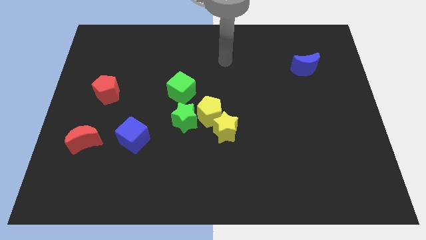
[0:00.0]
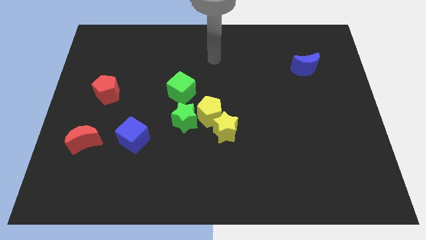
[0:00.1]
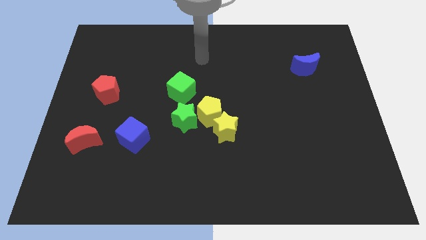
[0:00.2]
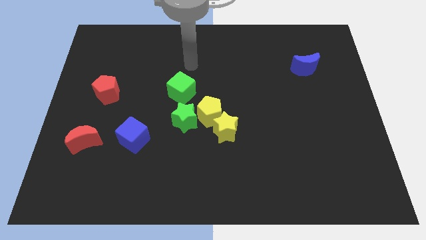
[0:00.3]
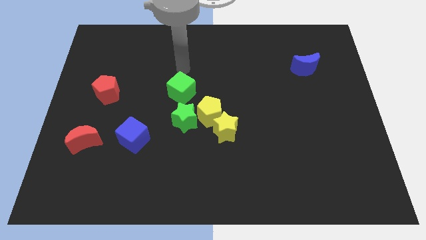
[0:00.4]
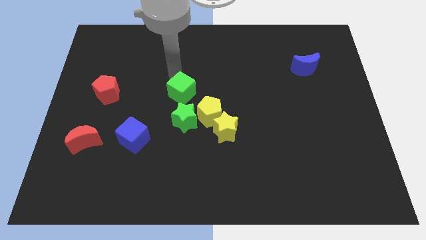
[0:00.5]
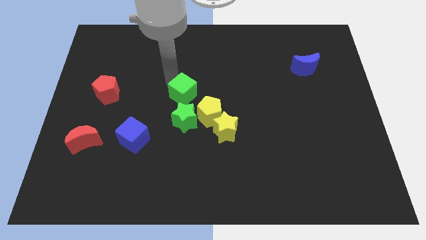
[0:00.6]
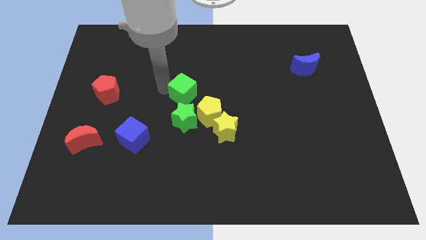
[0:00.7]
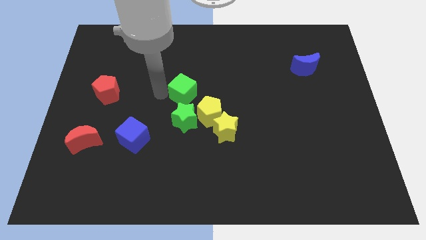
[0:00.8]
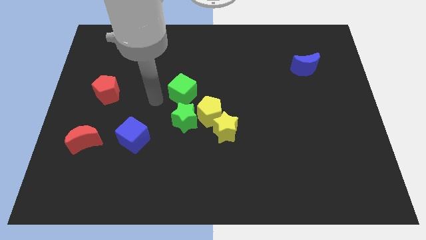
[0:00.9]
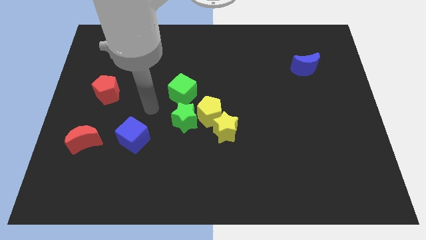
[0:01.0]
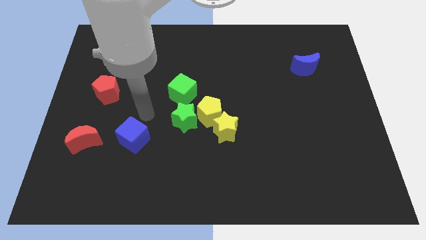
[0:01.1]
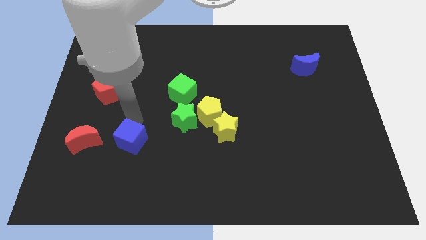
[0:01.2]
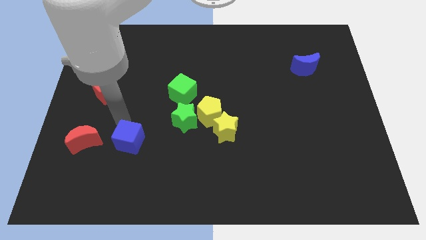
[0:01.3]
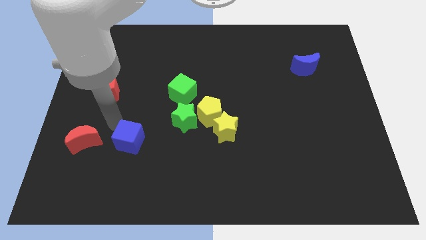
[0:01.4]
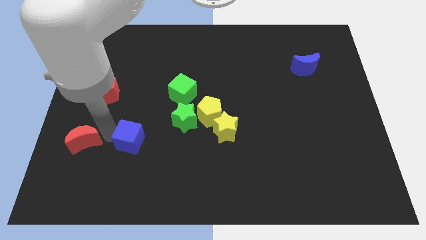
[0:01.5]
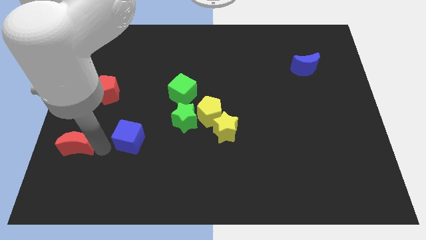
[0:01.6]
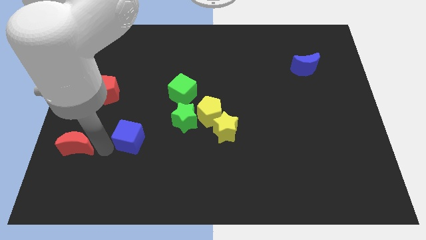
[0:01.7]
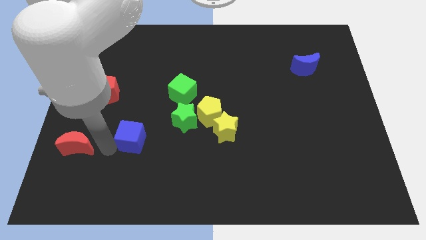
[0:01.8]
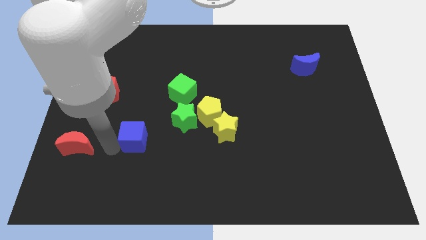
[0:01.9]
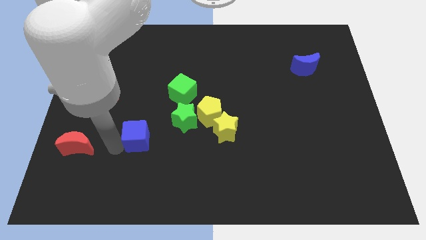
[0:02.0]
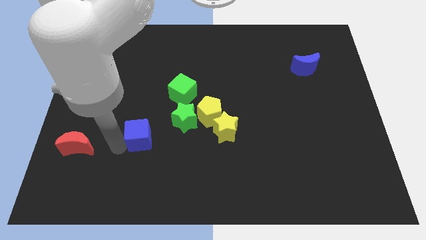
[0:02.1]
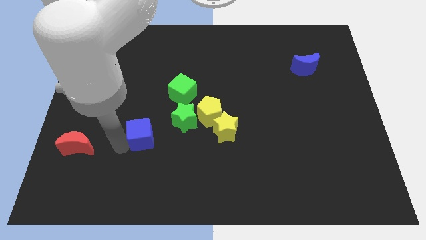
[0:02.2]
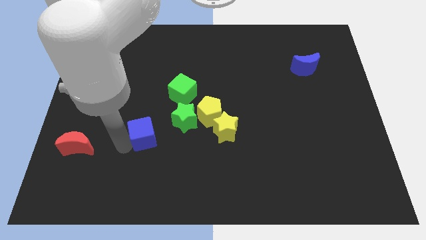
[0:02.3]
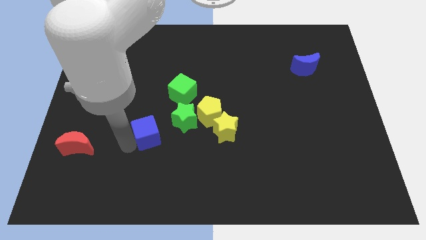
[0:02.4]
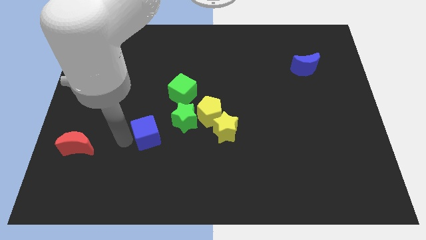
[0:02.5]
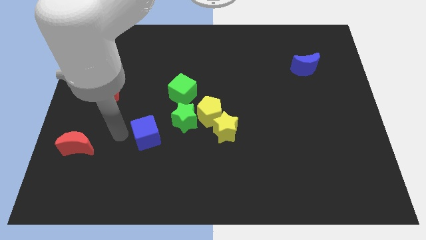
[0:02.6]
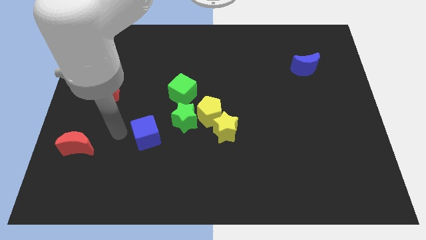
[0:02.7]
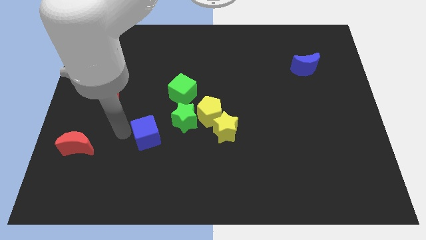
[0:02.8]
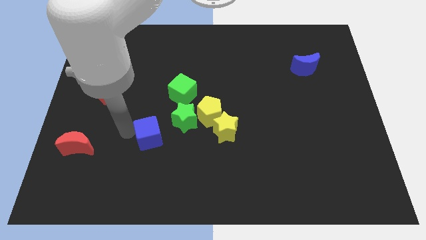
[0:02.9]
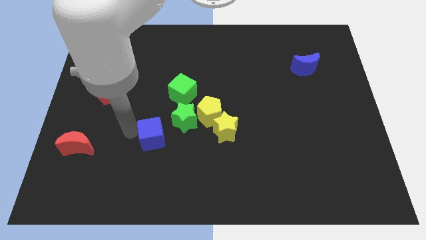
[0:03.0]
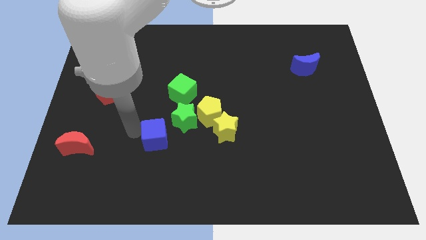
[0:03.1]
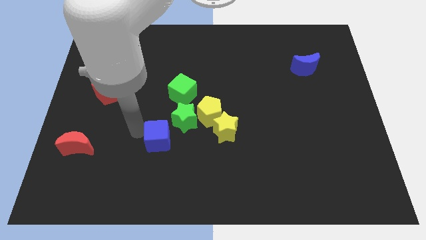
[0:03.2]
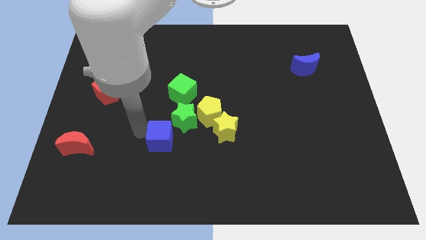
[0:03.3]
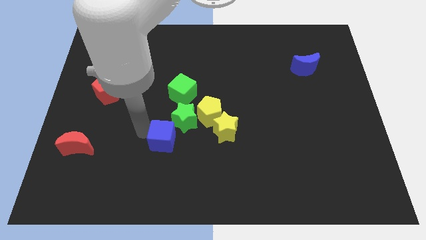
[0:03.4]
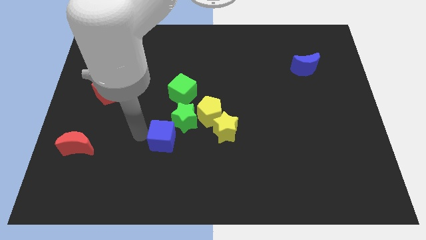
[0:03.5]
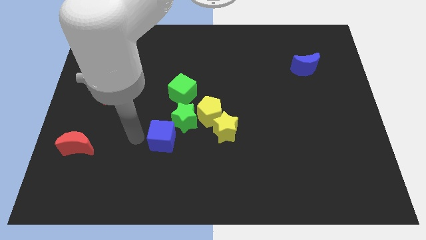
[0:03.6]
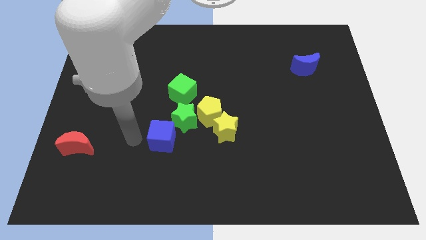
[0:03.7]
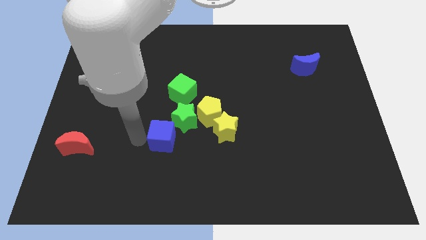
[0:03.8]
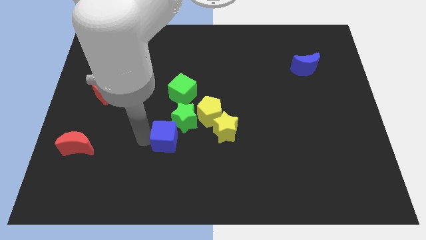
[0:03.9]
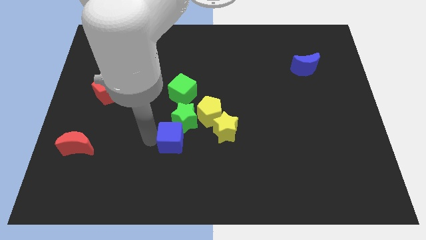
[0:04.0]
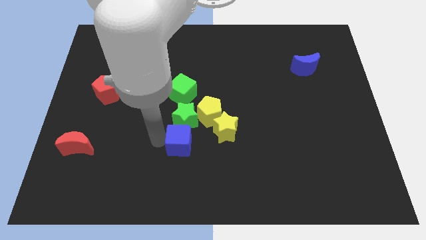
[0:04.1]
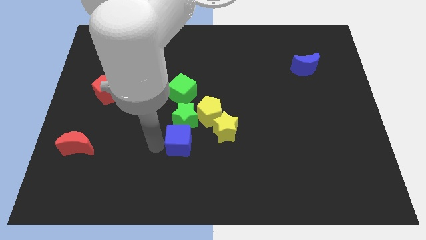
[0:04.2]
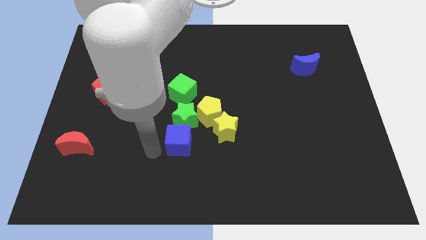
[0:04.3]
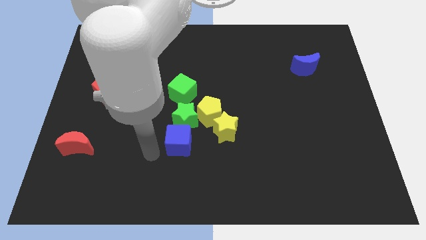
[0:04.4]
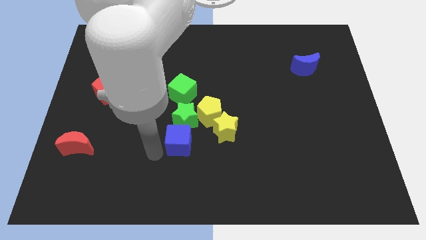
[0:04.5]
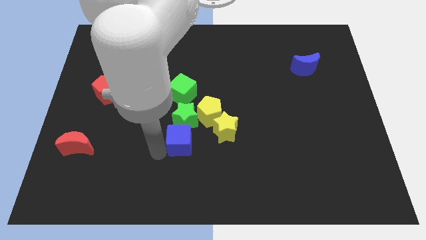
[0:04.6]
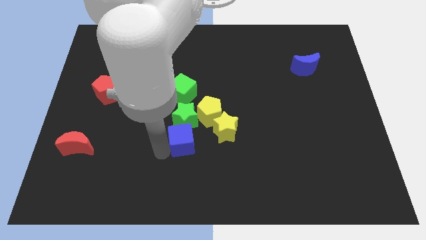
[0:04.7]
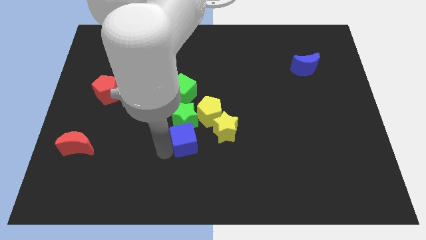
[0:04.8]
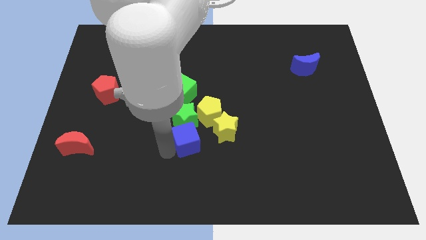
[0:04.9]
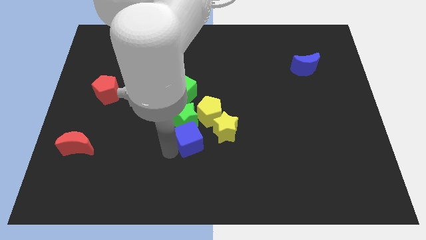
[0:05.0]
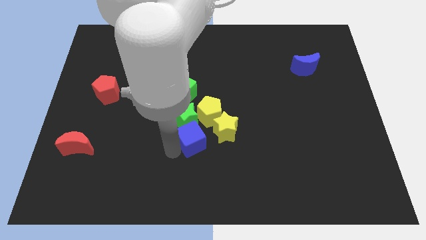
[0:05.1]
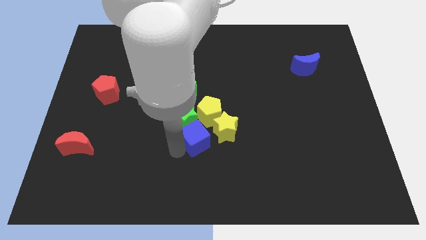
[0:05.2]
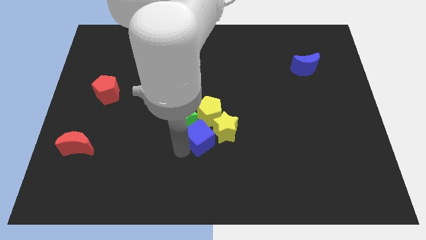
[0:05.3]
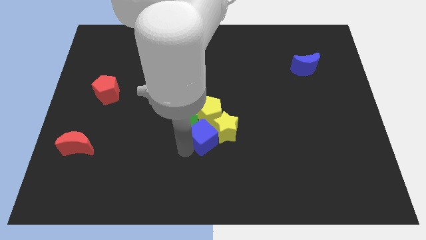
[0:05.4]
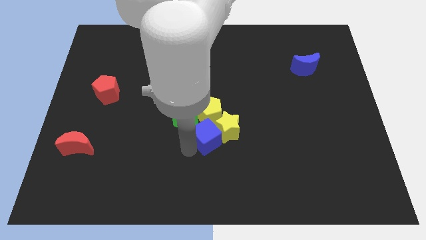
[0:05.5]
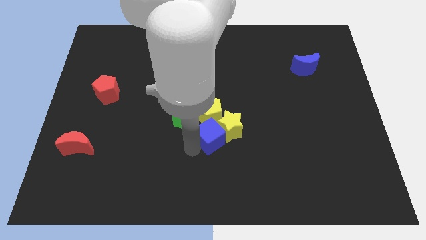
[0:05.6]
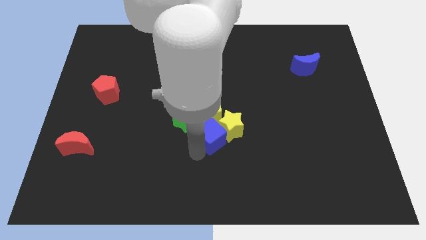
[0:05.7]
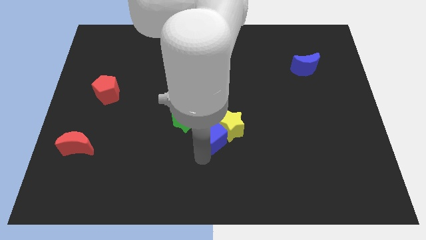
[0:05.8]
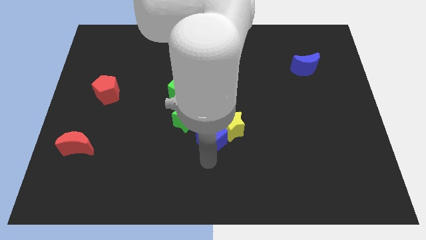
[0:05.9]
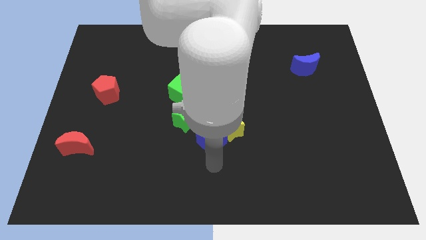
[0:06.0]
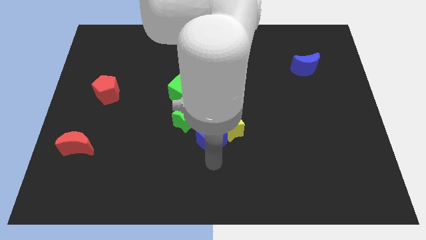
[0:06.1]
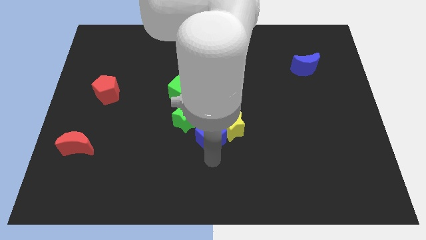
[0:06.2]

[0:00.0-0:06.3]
put the blue cube next to the yellow pentagon

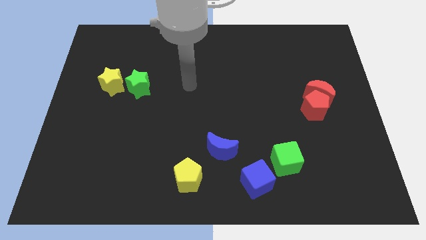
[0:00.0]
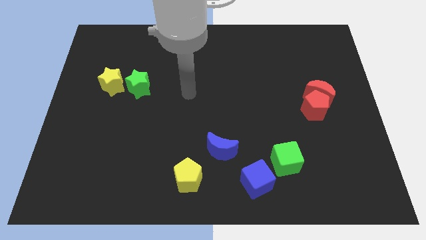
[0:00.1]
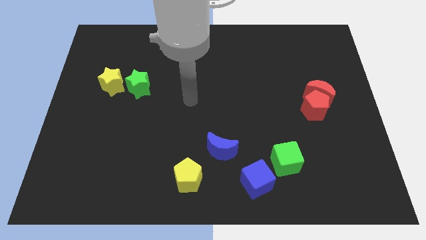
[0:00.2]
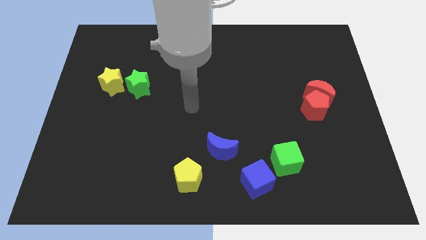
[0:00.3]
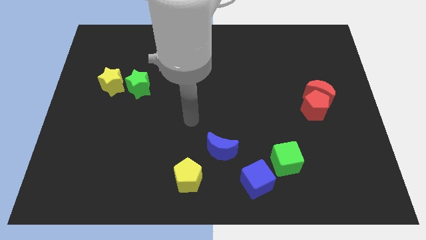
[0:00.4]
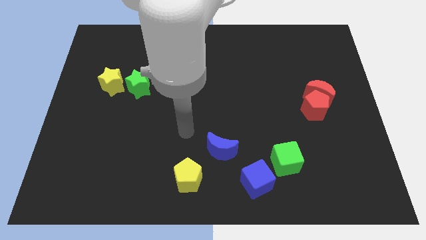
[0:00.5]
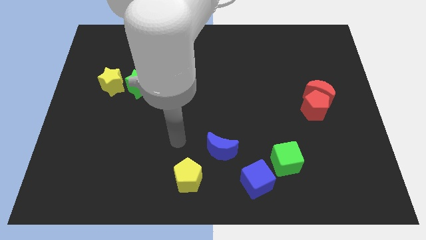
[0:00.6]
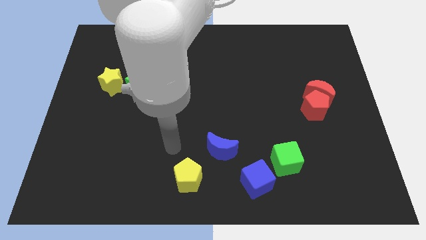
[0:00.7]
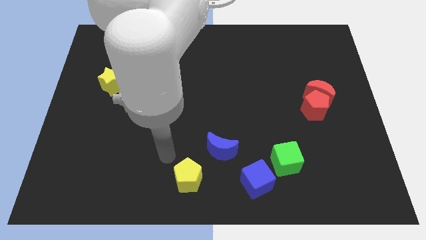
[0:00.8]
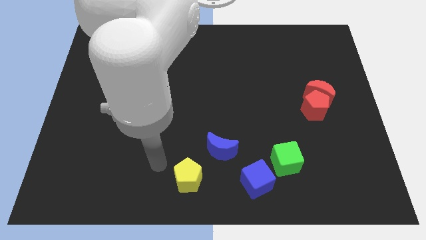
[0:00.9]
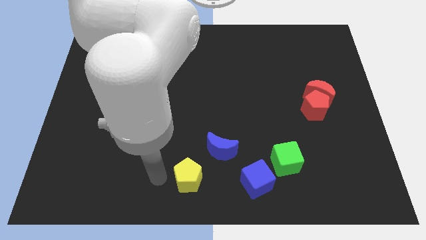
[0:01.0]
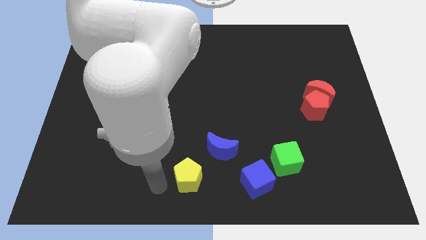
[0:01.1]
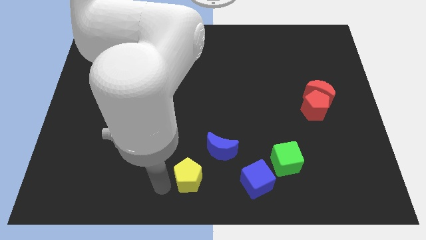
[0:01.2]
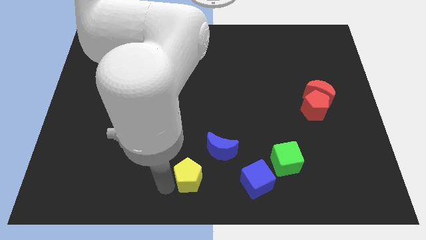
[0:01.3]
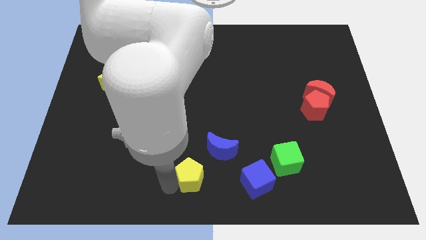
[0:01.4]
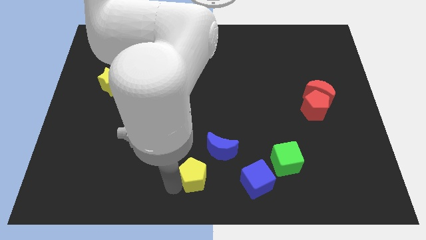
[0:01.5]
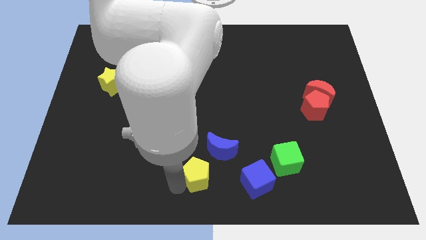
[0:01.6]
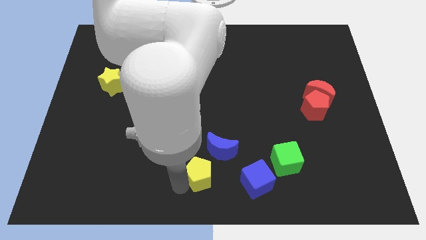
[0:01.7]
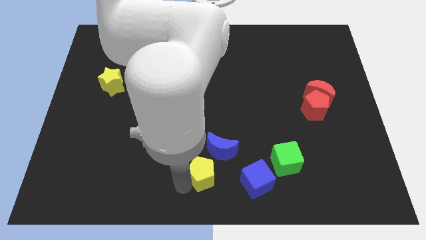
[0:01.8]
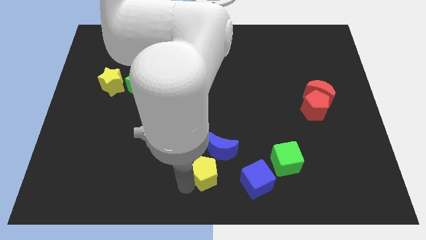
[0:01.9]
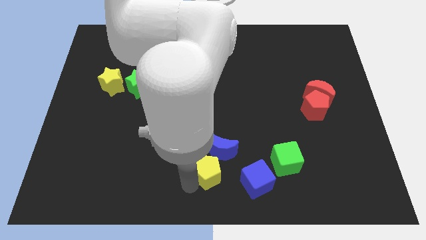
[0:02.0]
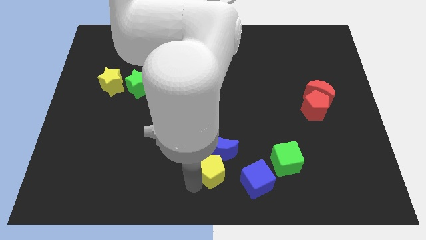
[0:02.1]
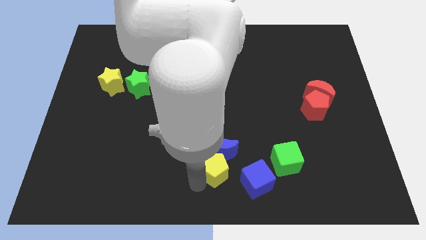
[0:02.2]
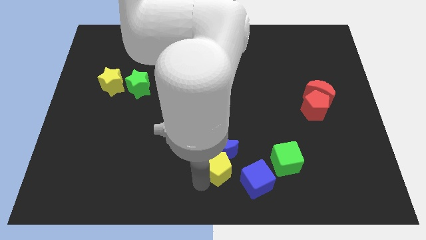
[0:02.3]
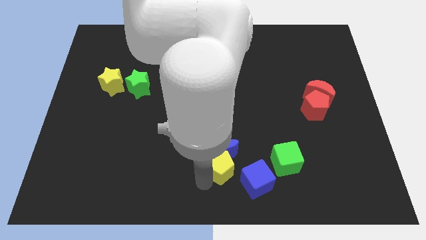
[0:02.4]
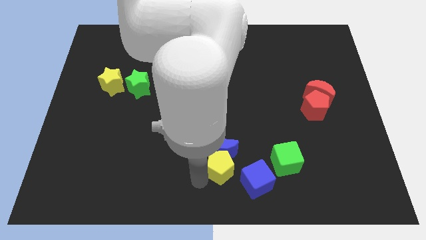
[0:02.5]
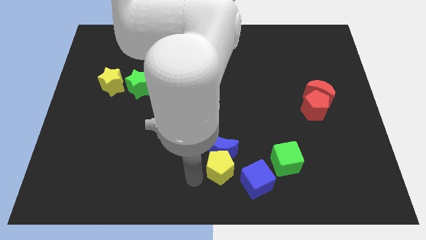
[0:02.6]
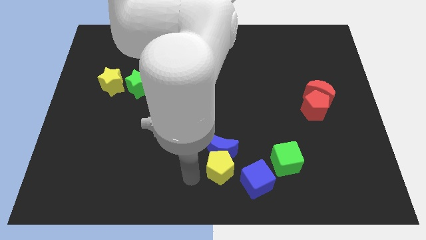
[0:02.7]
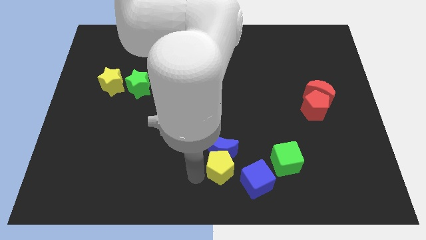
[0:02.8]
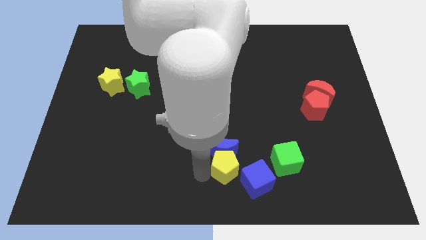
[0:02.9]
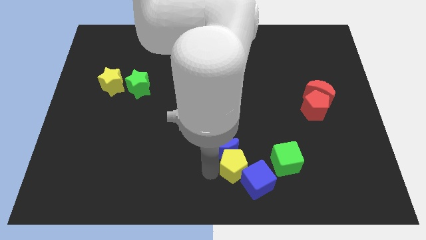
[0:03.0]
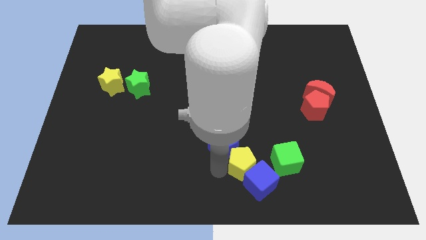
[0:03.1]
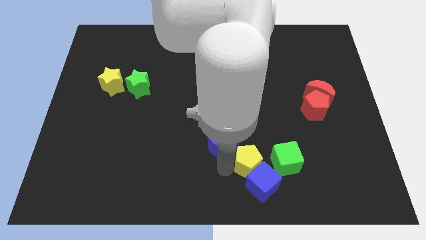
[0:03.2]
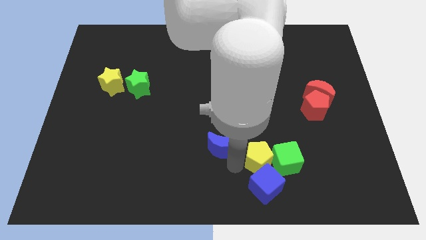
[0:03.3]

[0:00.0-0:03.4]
move the yellow pentagon towards the green cube
